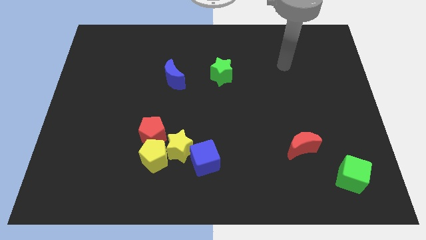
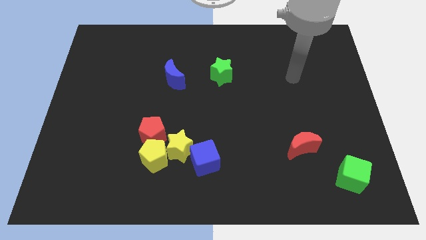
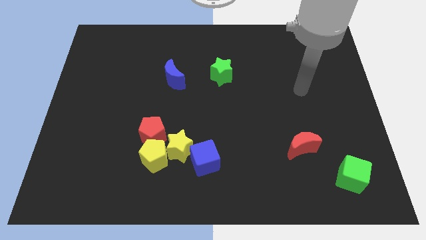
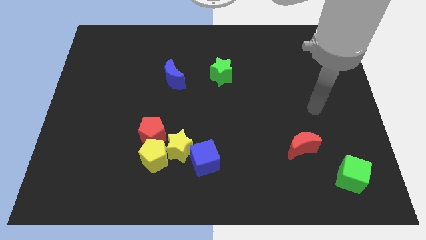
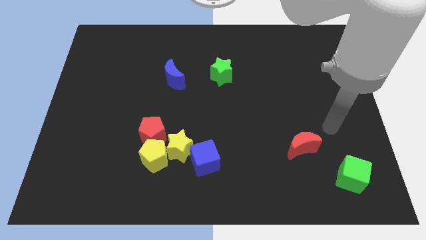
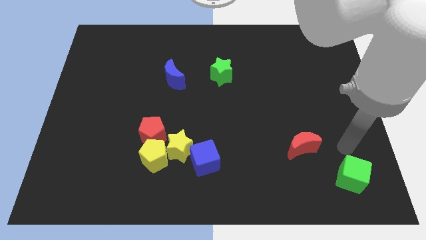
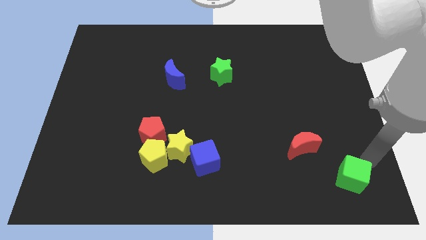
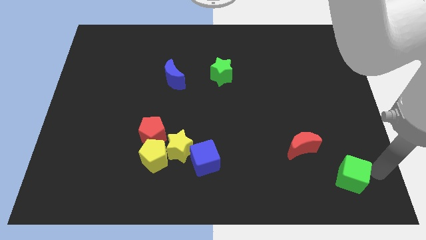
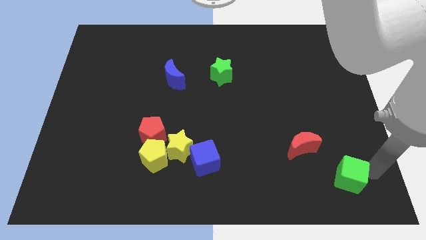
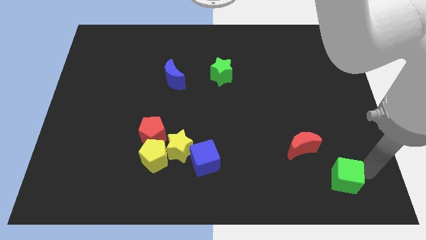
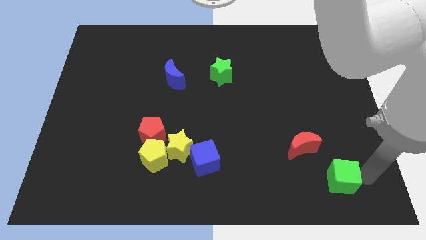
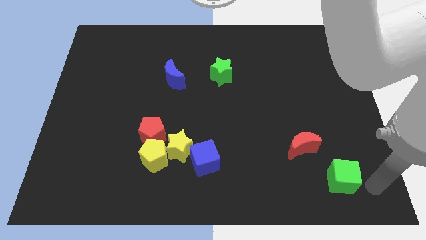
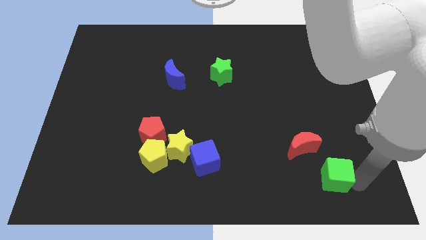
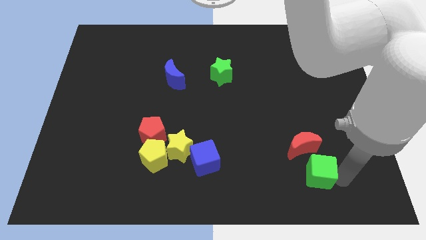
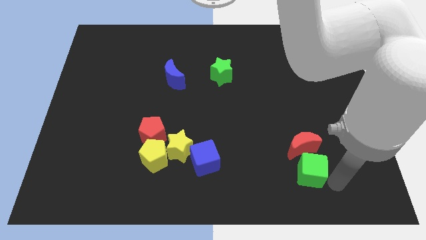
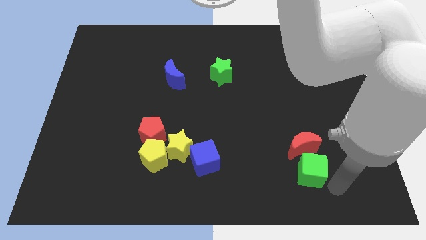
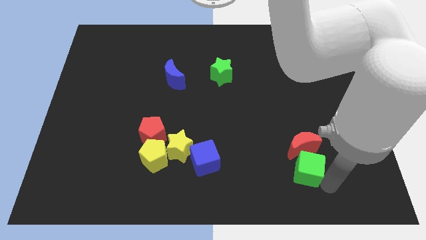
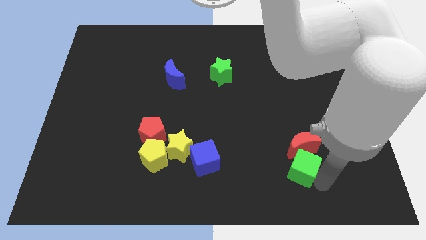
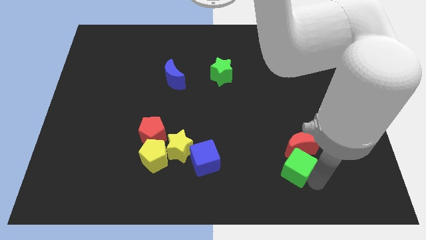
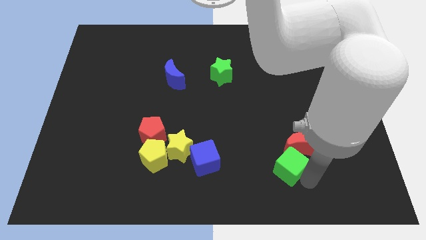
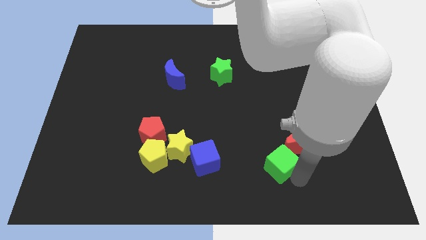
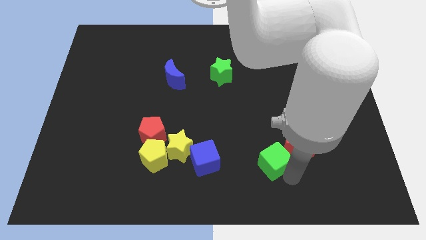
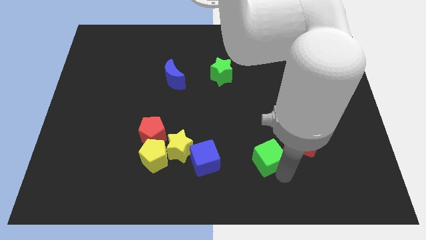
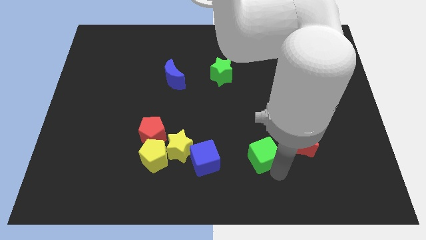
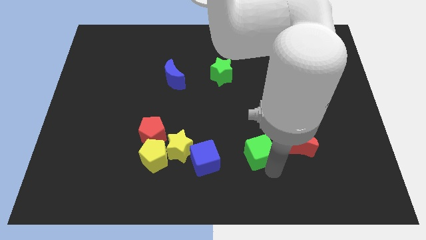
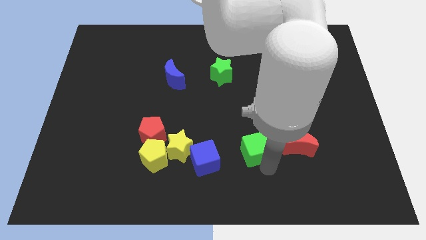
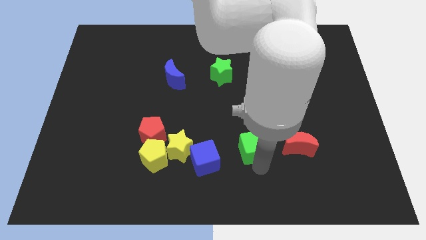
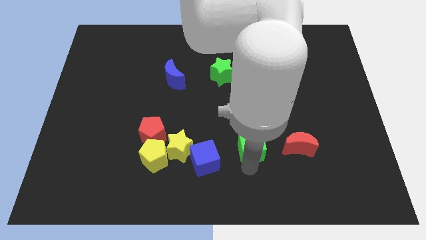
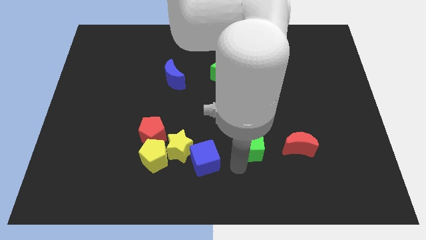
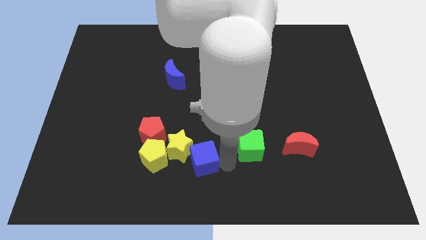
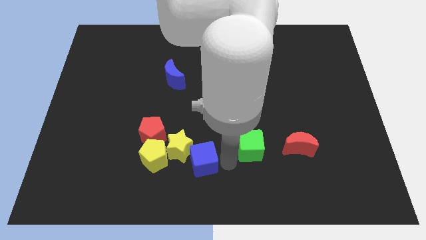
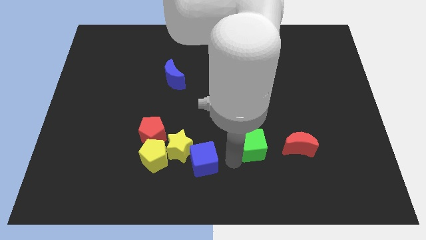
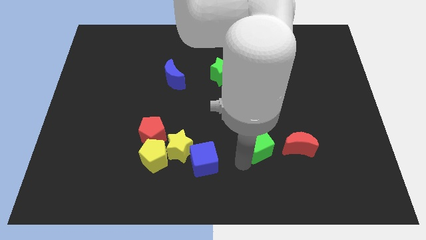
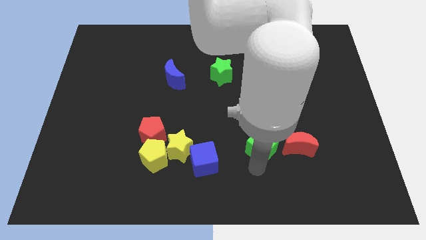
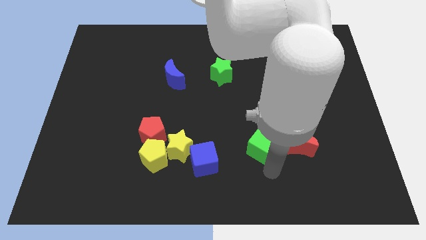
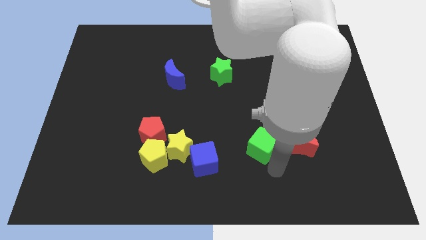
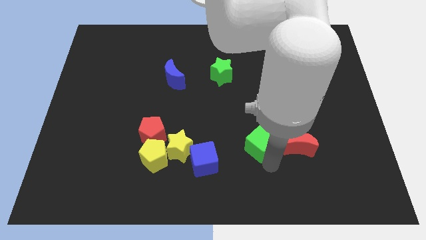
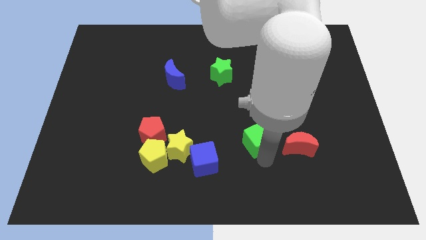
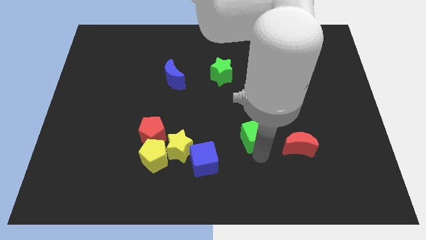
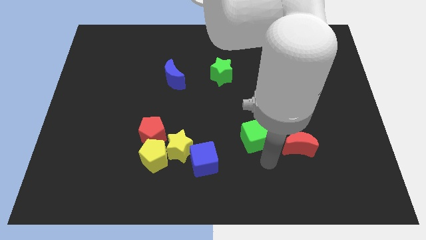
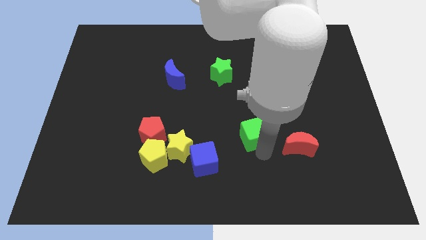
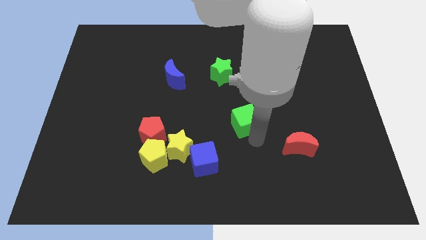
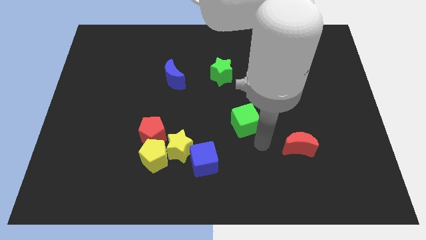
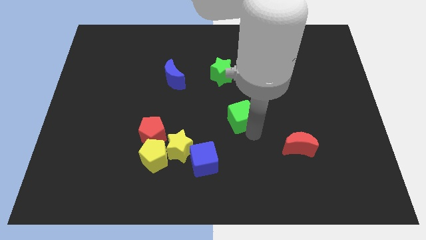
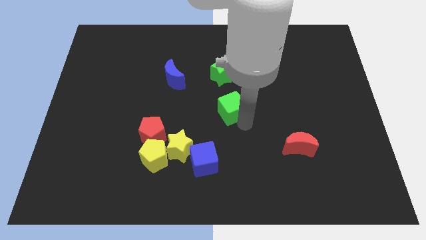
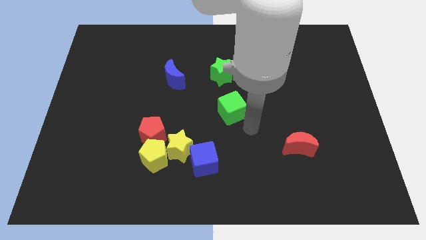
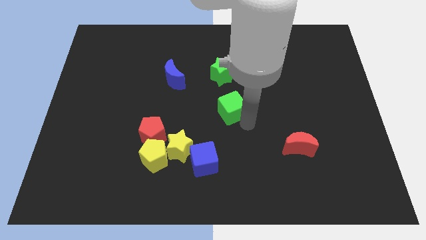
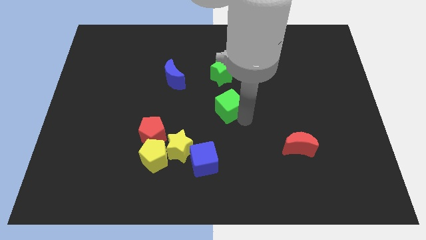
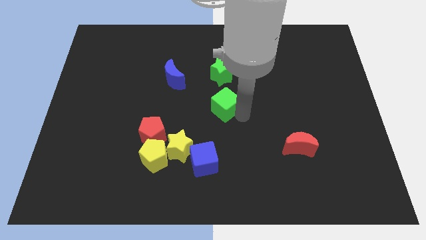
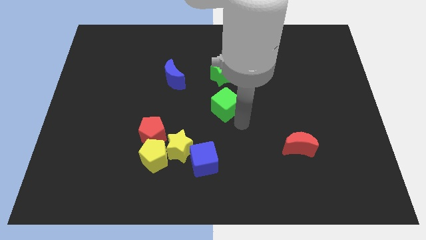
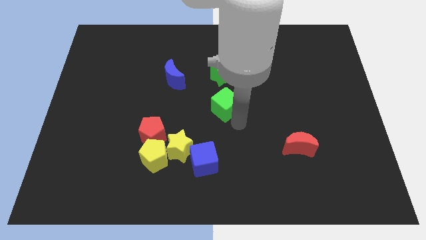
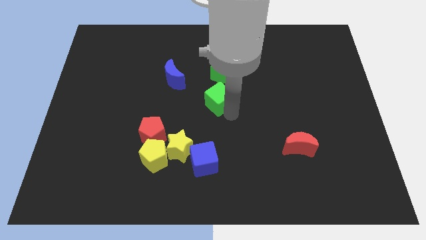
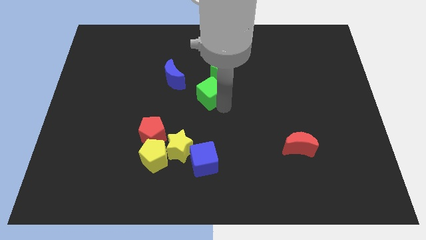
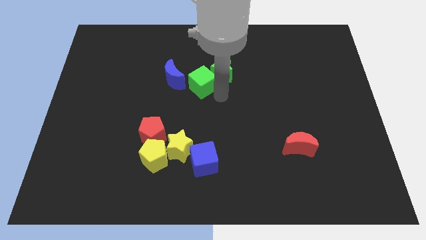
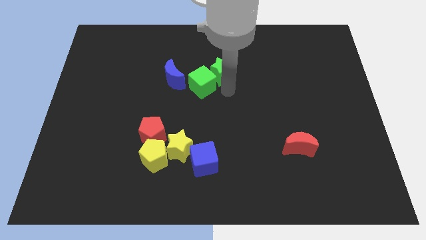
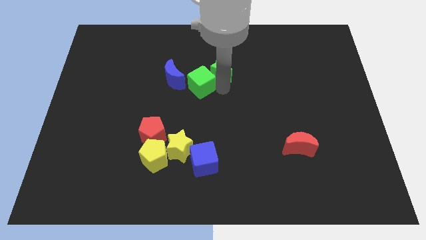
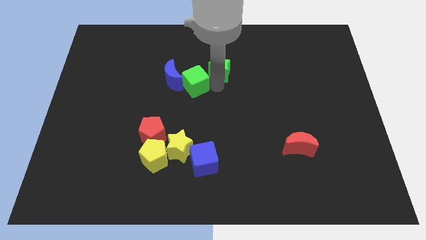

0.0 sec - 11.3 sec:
push the green cube towards the blue moon

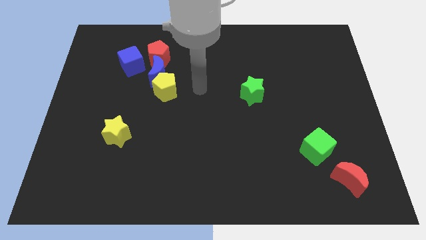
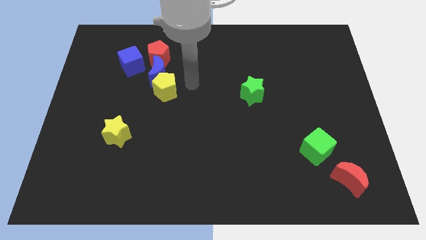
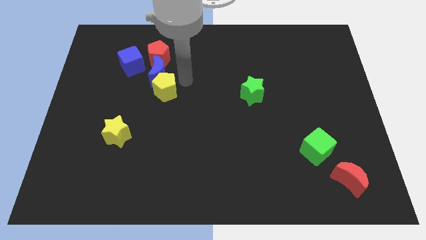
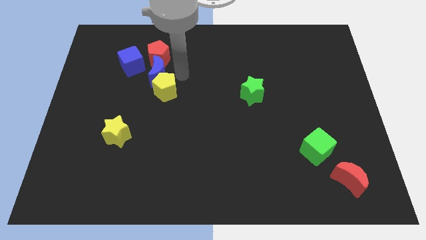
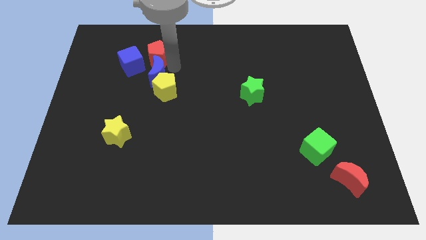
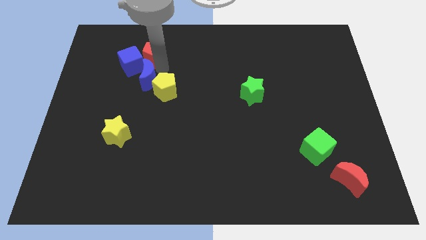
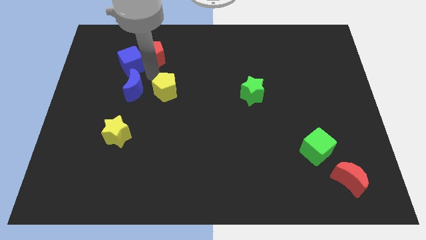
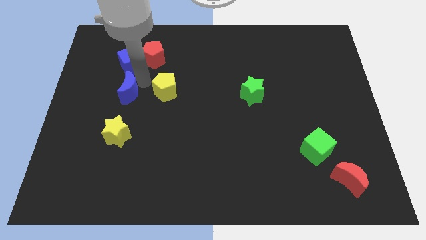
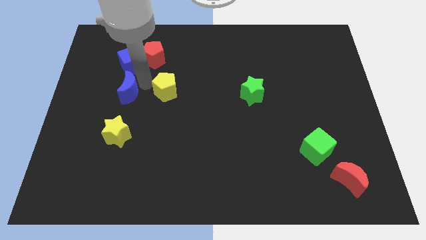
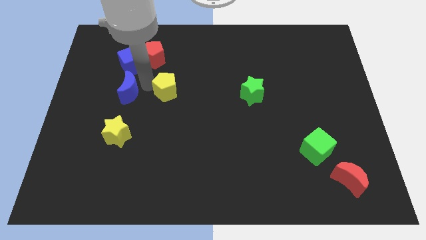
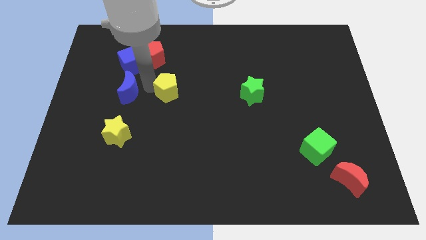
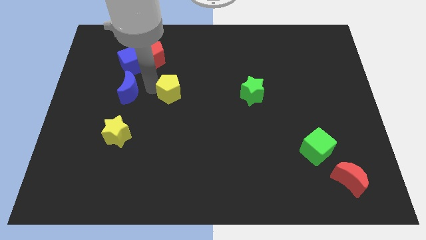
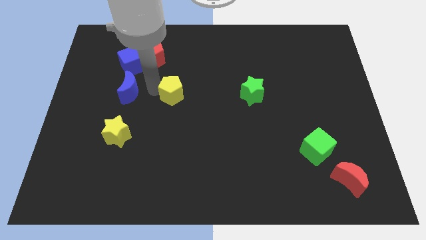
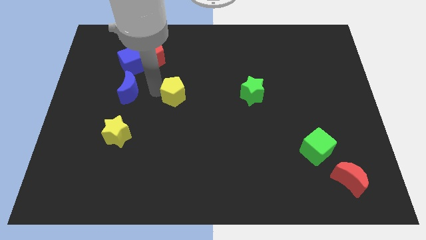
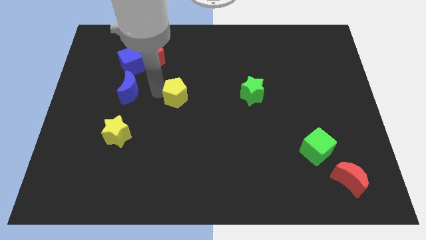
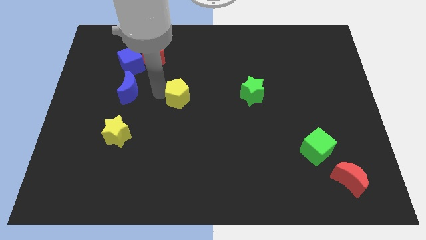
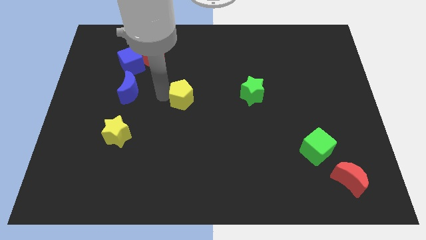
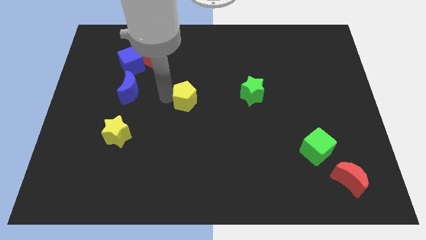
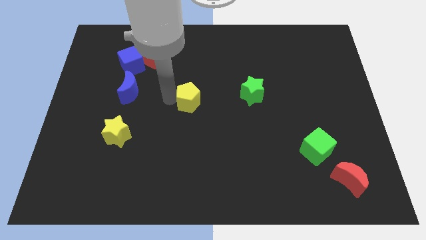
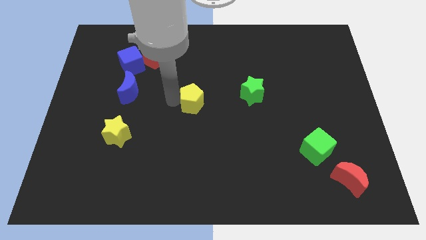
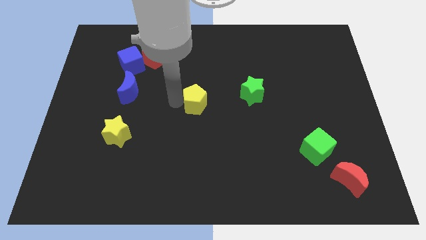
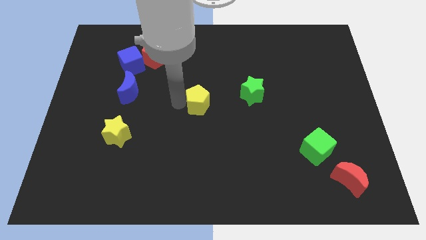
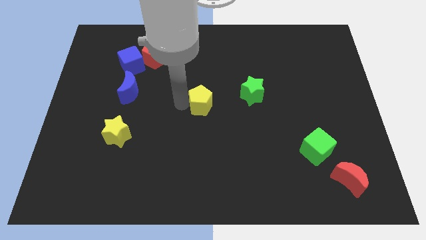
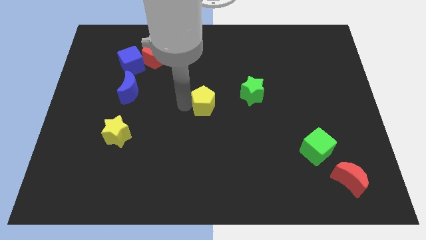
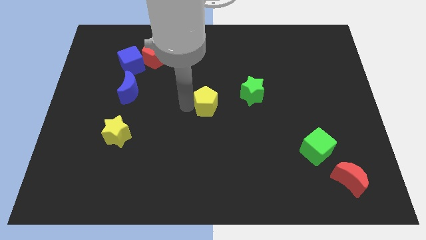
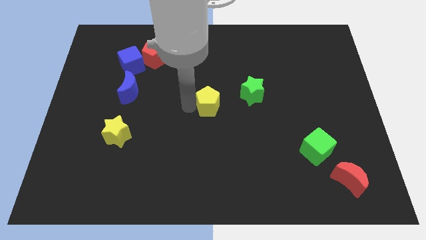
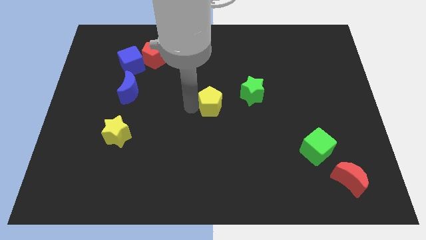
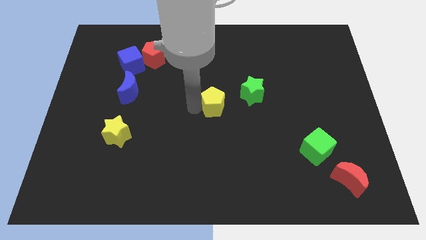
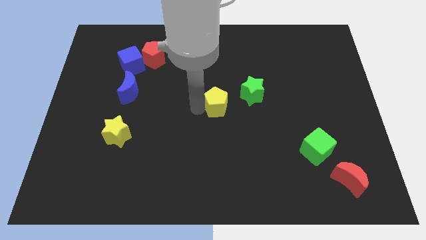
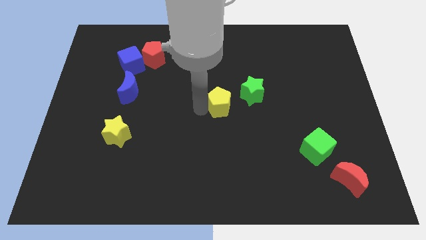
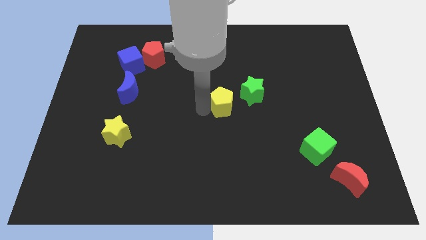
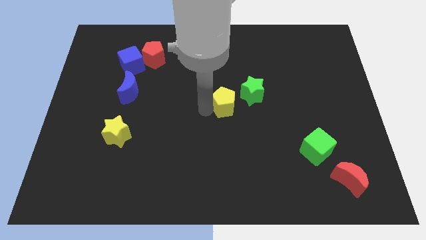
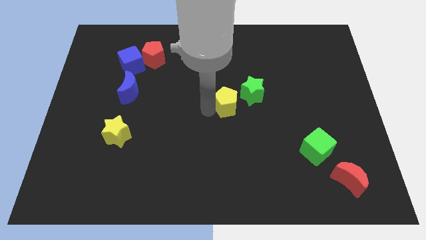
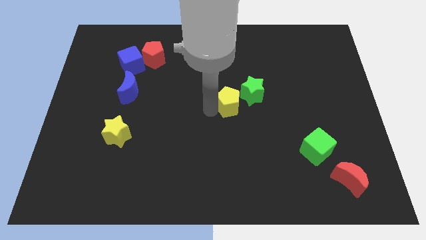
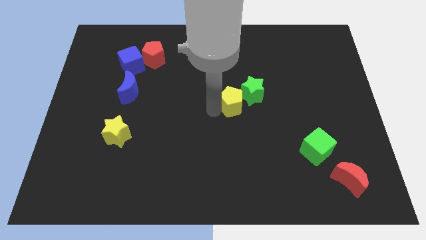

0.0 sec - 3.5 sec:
move the yellow pentagon close to the green star
